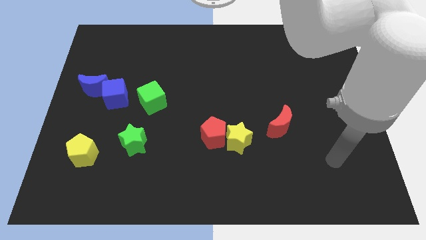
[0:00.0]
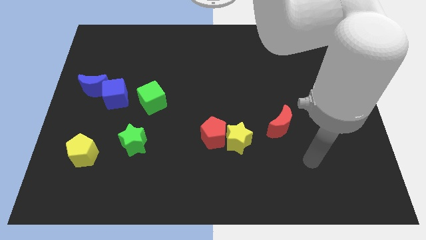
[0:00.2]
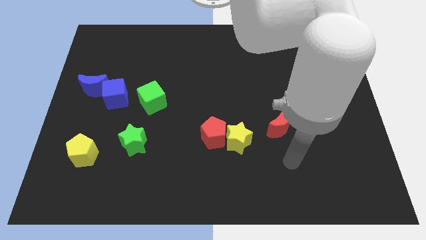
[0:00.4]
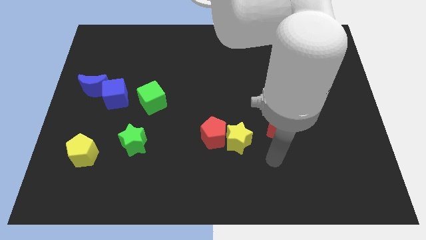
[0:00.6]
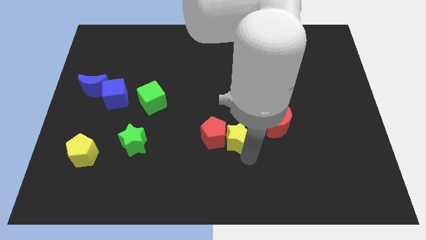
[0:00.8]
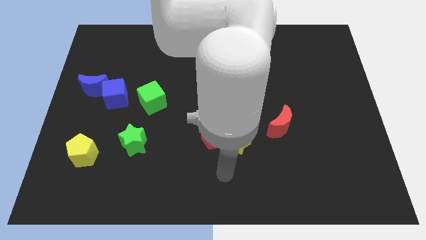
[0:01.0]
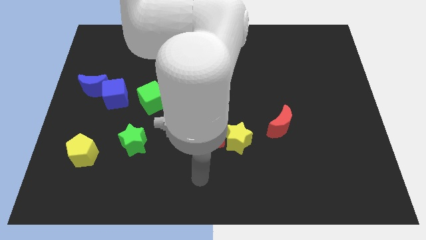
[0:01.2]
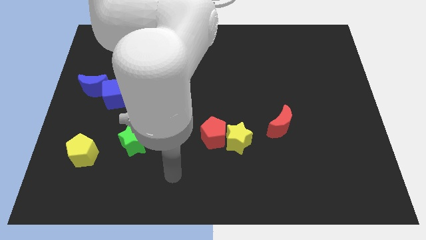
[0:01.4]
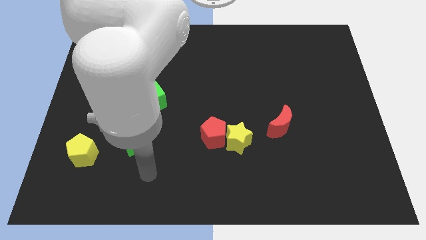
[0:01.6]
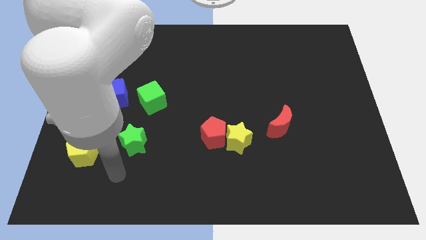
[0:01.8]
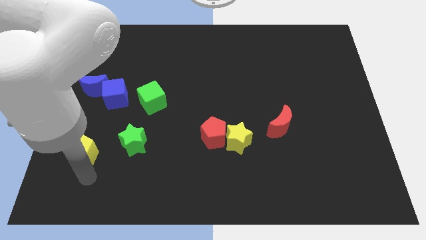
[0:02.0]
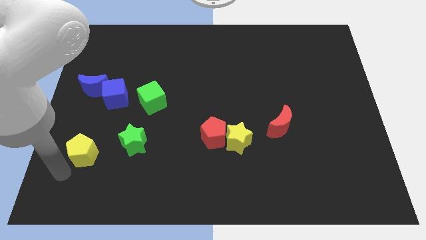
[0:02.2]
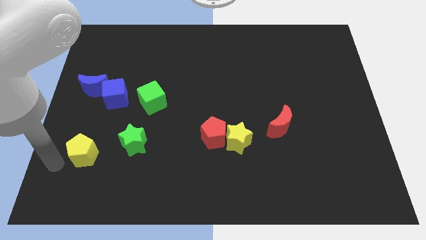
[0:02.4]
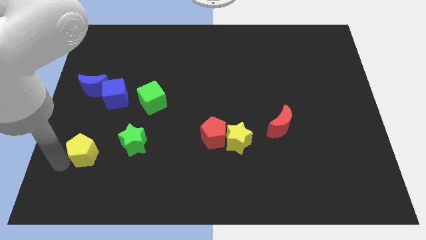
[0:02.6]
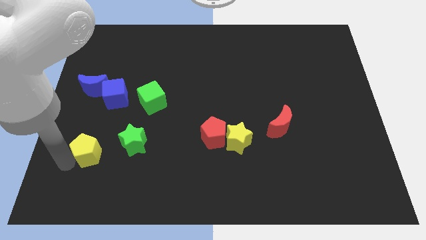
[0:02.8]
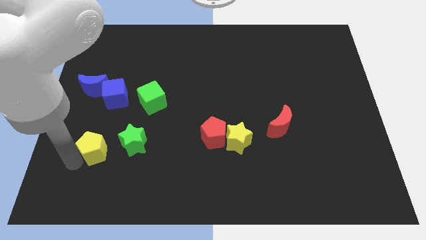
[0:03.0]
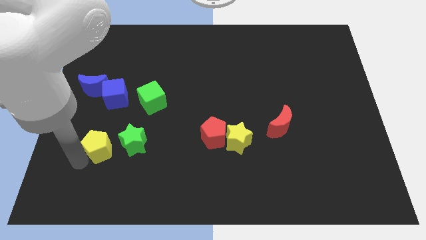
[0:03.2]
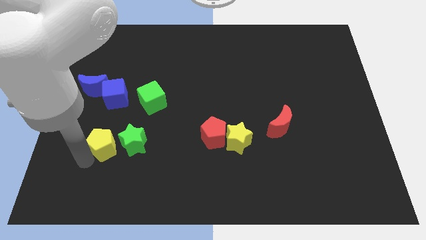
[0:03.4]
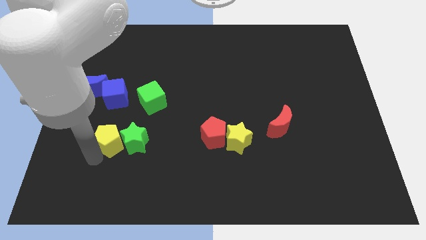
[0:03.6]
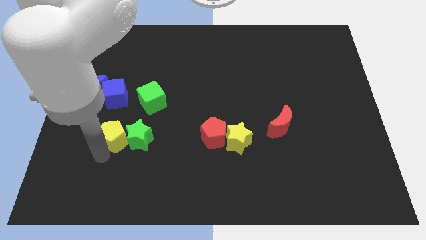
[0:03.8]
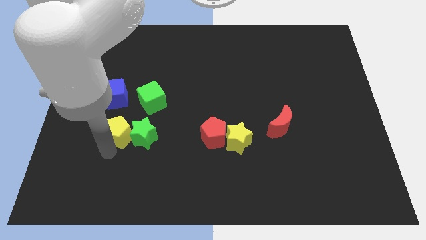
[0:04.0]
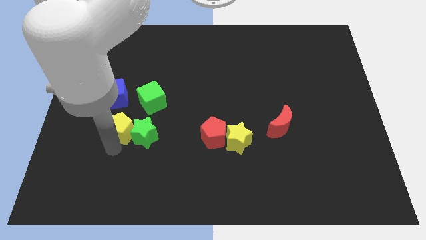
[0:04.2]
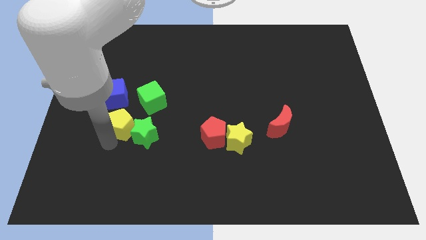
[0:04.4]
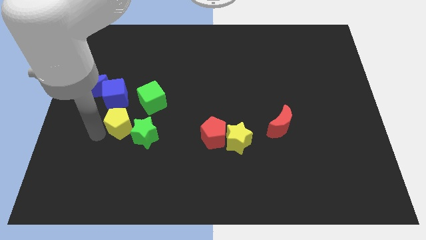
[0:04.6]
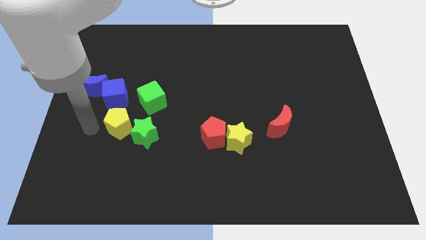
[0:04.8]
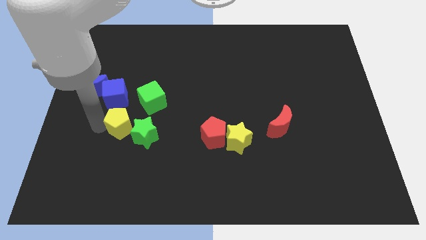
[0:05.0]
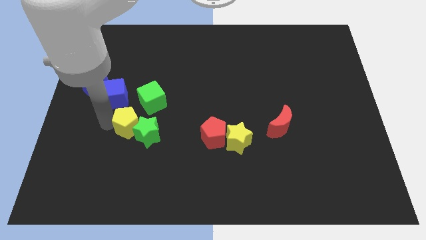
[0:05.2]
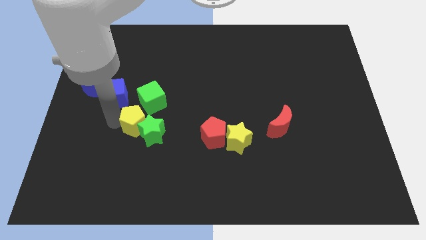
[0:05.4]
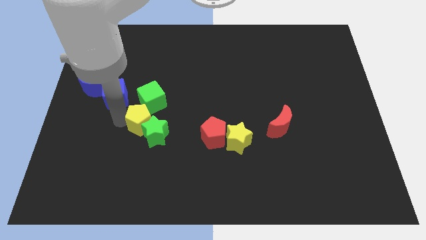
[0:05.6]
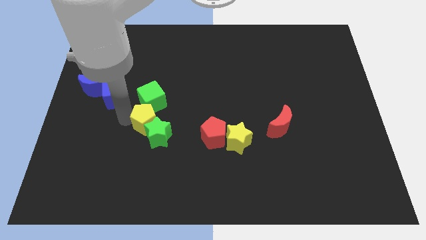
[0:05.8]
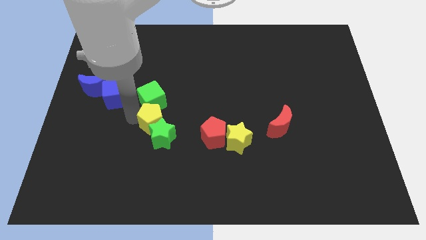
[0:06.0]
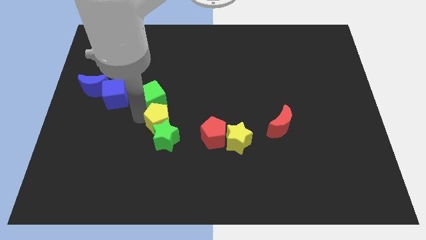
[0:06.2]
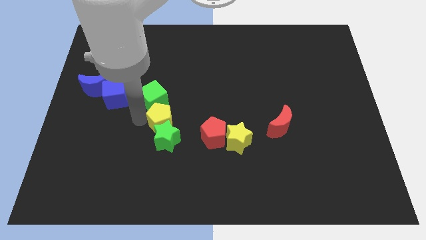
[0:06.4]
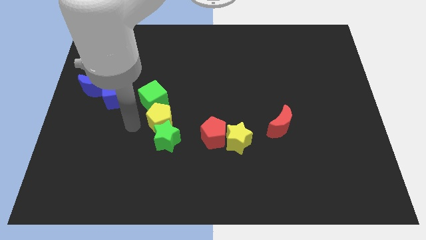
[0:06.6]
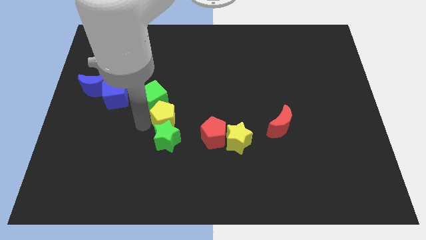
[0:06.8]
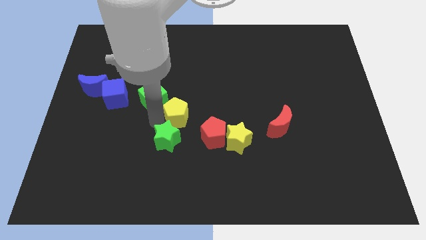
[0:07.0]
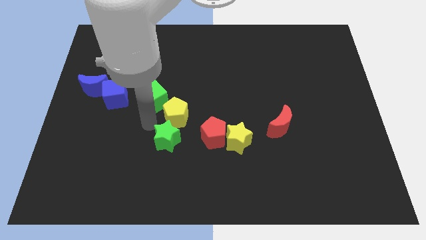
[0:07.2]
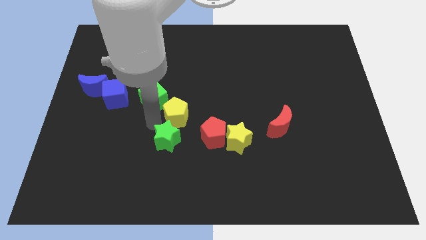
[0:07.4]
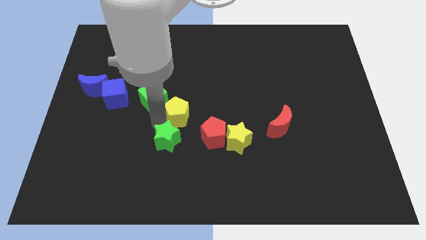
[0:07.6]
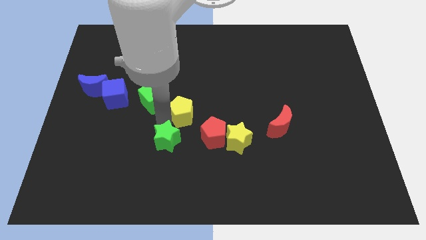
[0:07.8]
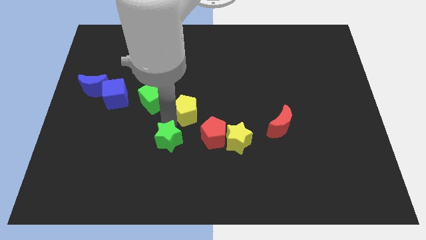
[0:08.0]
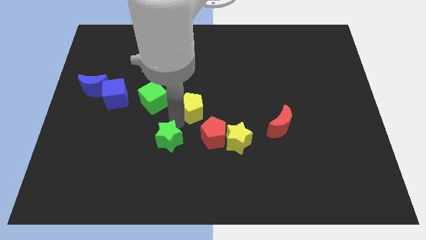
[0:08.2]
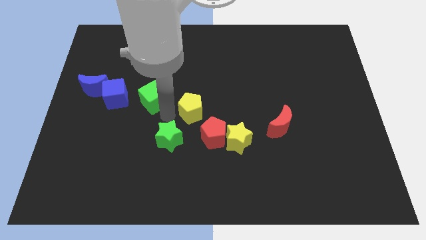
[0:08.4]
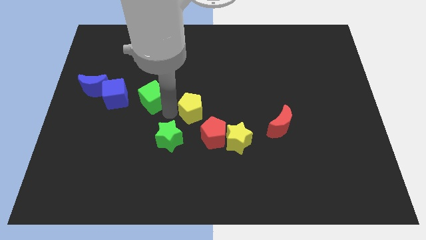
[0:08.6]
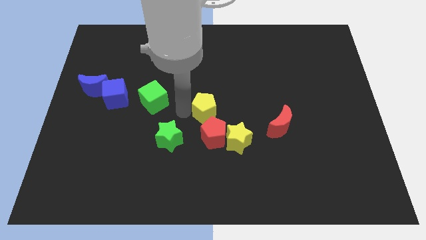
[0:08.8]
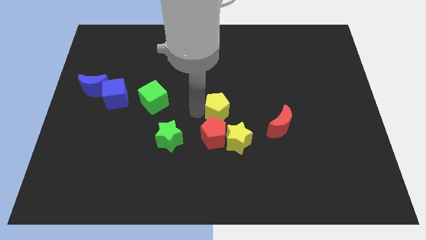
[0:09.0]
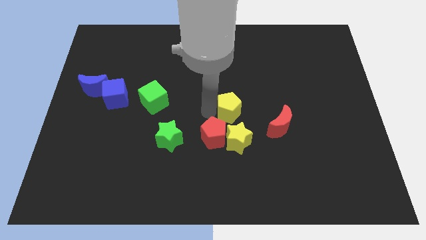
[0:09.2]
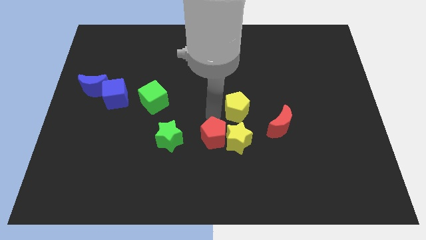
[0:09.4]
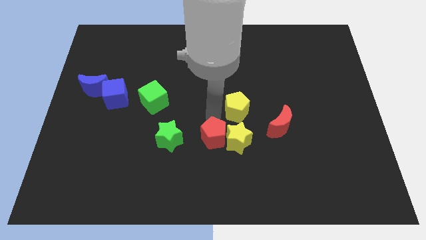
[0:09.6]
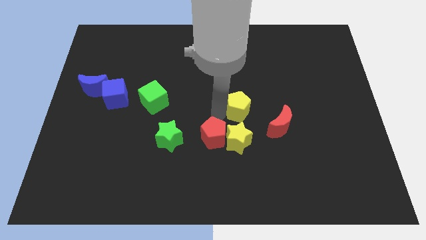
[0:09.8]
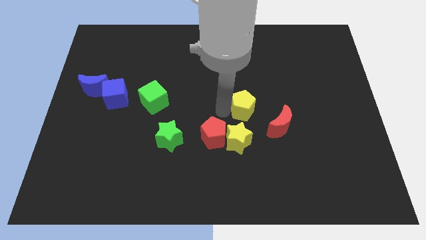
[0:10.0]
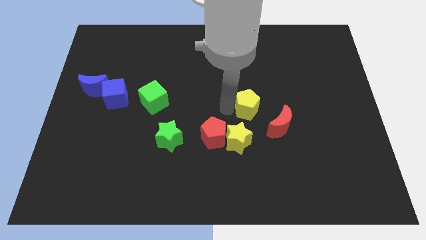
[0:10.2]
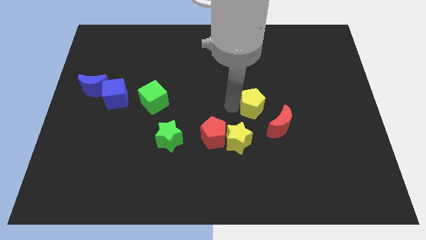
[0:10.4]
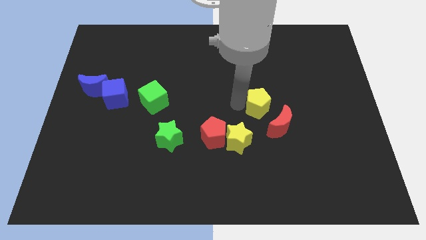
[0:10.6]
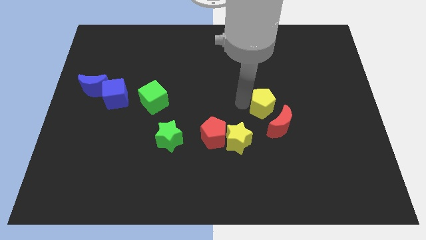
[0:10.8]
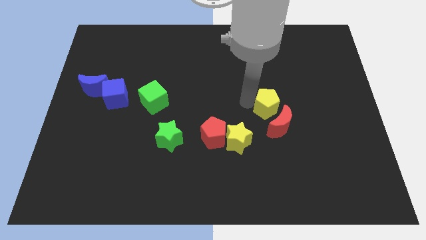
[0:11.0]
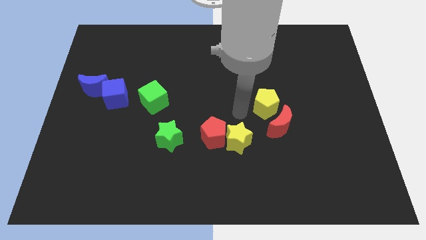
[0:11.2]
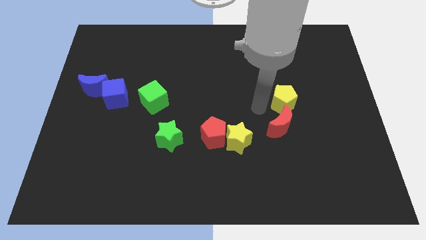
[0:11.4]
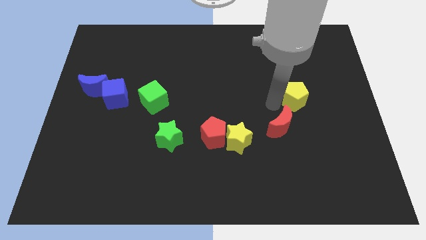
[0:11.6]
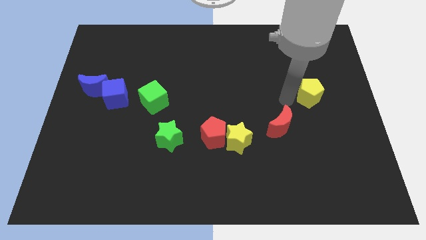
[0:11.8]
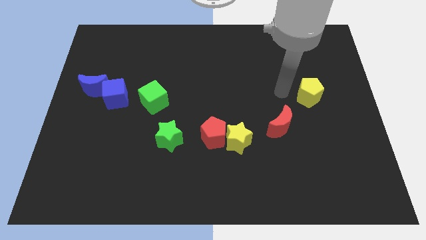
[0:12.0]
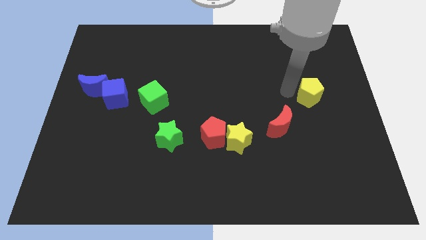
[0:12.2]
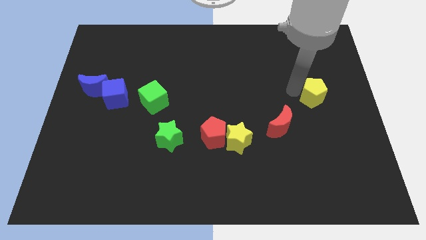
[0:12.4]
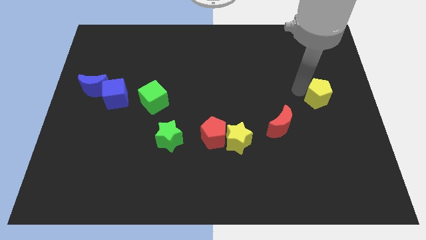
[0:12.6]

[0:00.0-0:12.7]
slide the yellow pentagon to the right side of the board
